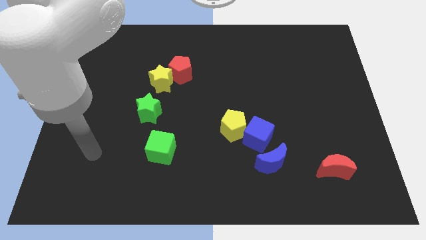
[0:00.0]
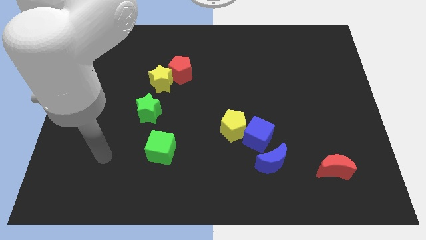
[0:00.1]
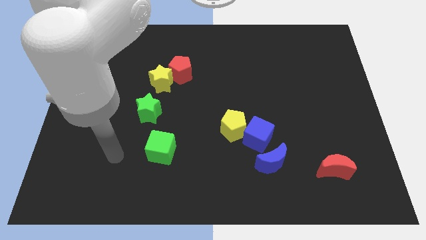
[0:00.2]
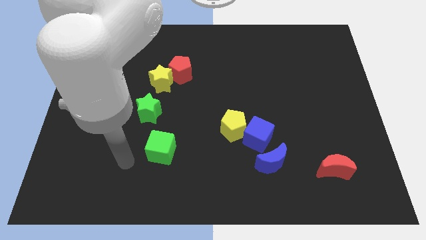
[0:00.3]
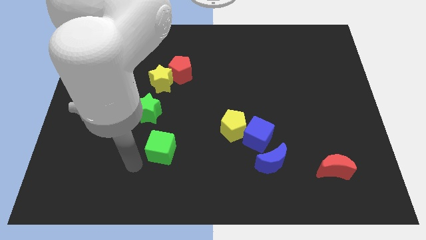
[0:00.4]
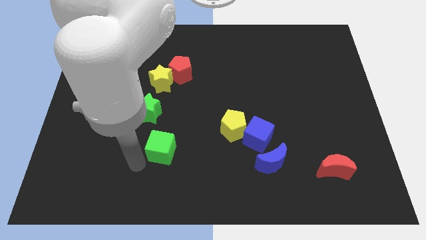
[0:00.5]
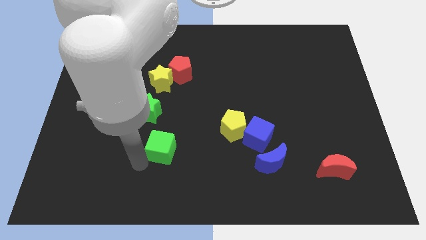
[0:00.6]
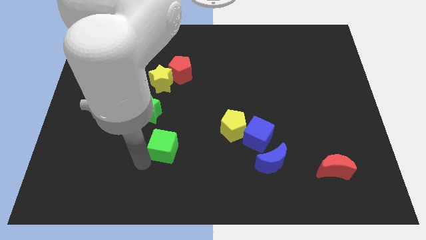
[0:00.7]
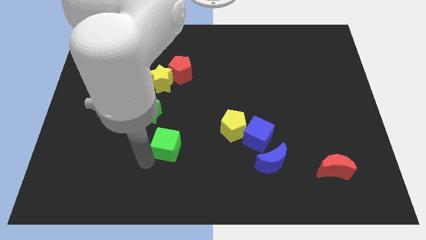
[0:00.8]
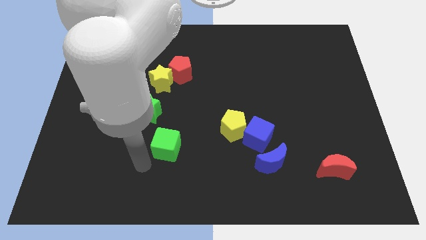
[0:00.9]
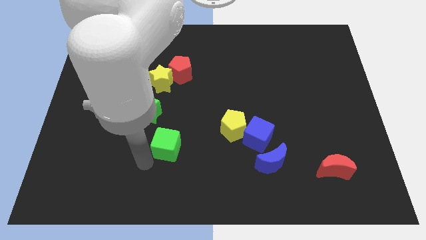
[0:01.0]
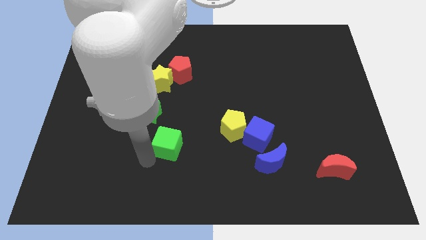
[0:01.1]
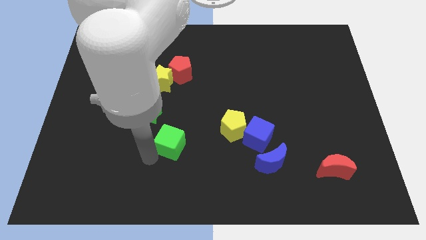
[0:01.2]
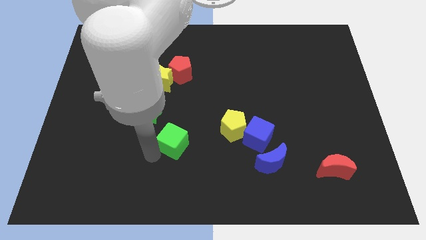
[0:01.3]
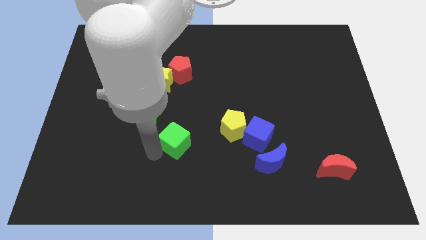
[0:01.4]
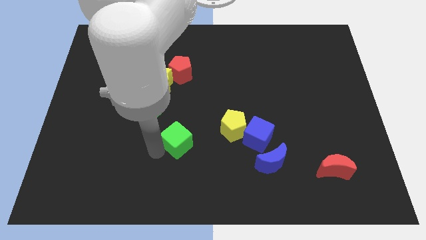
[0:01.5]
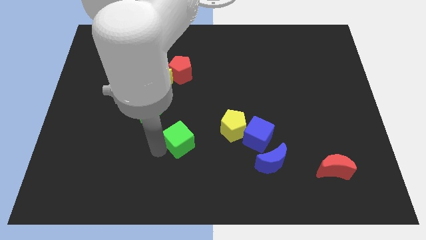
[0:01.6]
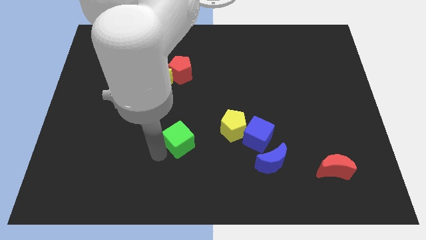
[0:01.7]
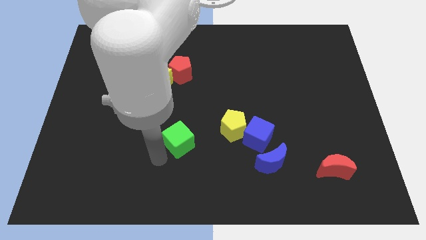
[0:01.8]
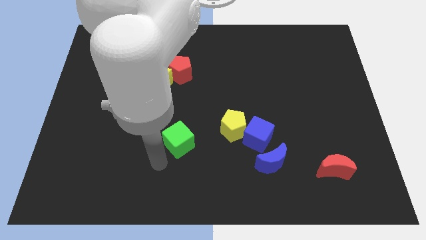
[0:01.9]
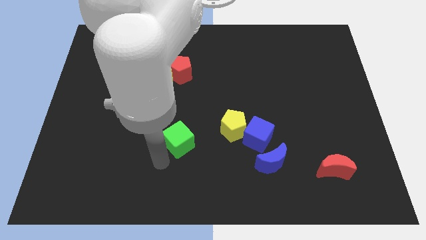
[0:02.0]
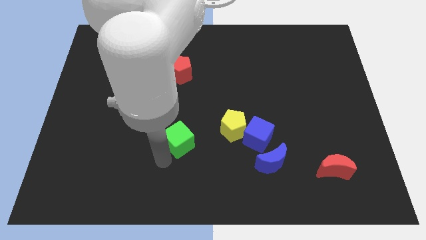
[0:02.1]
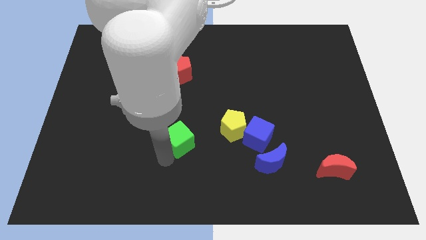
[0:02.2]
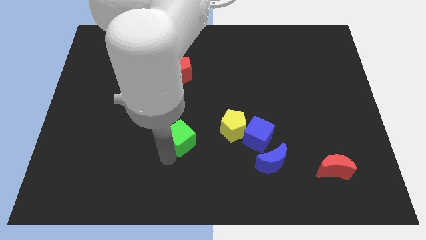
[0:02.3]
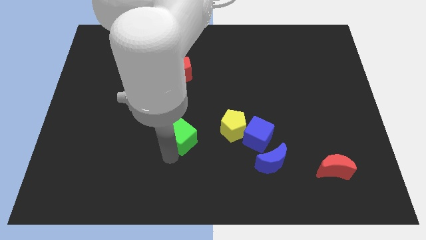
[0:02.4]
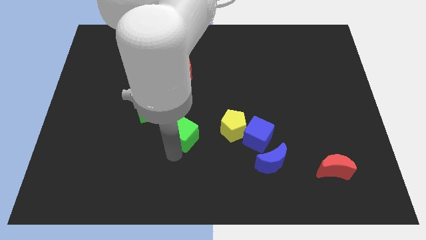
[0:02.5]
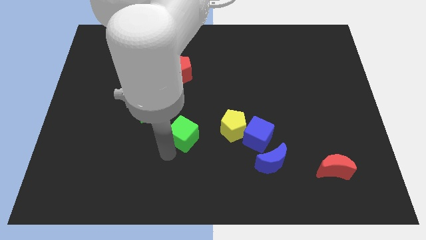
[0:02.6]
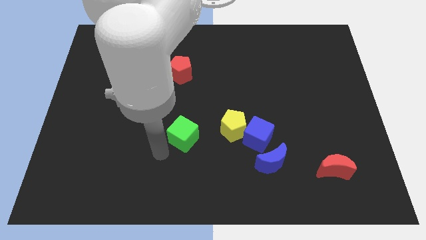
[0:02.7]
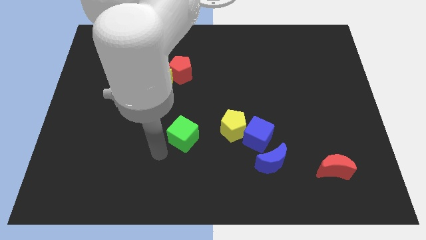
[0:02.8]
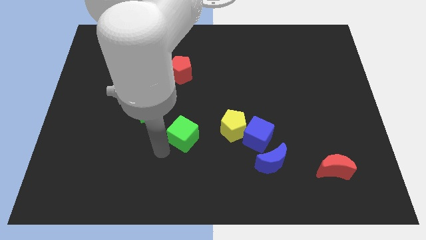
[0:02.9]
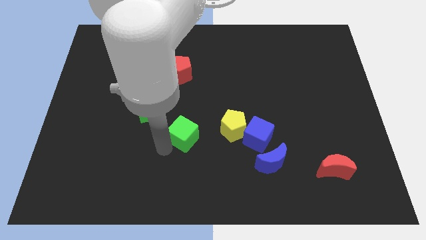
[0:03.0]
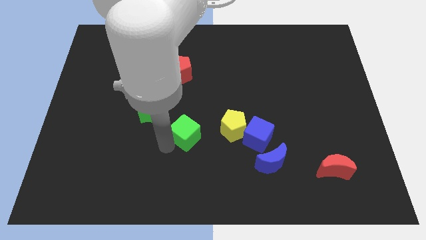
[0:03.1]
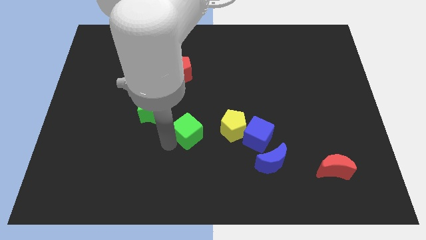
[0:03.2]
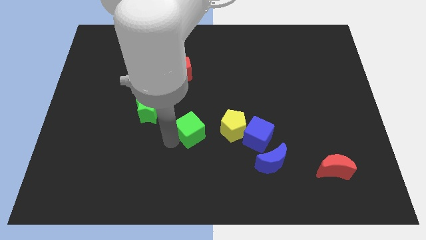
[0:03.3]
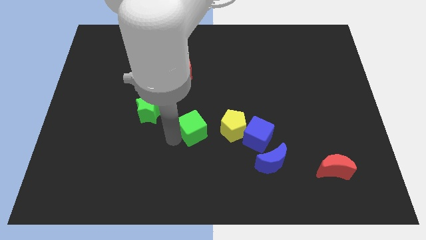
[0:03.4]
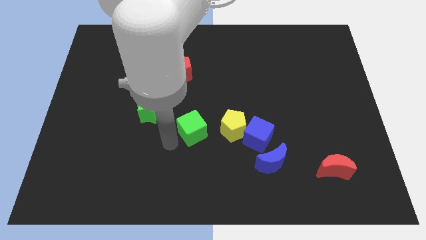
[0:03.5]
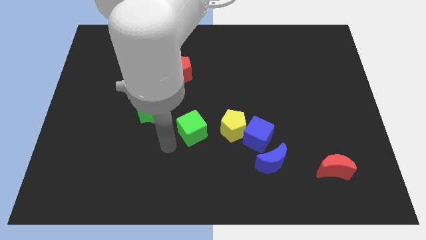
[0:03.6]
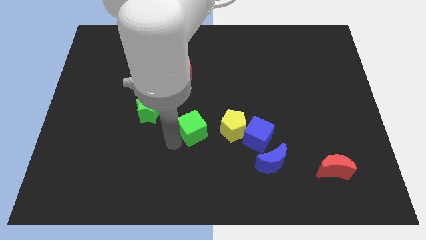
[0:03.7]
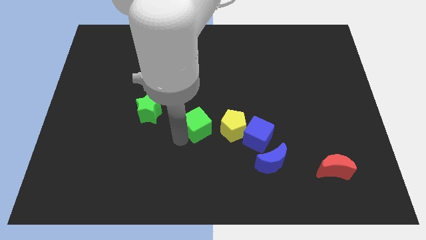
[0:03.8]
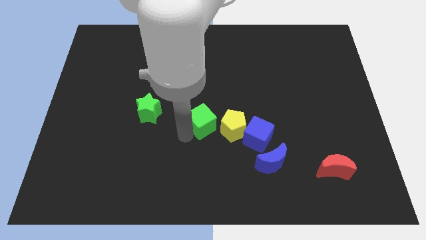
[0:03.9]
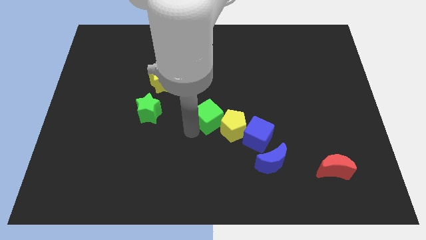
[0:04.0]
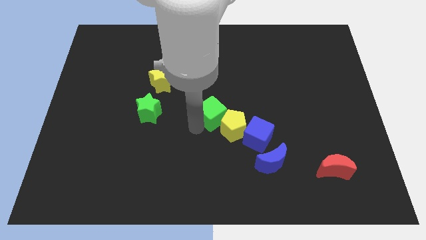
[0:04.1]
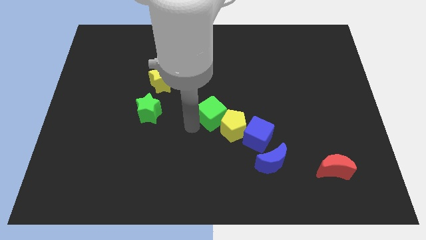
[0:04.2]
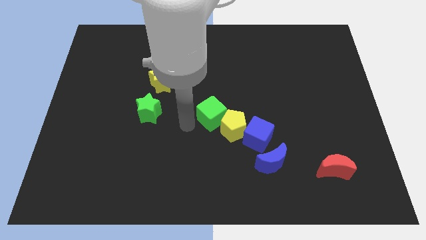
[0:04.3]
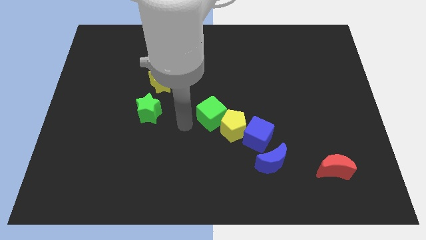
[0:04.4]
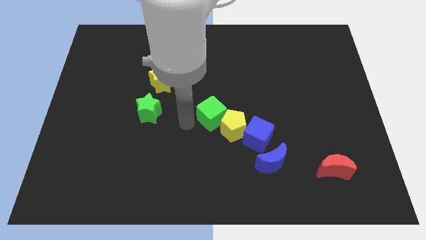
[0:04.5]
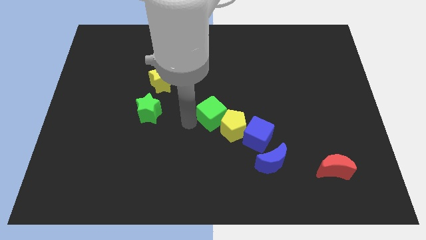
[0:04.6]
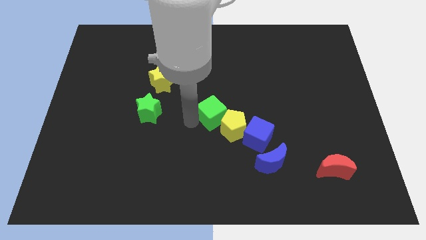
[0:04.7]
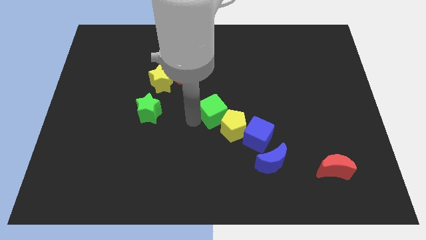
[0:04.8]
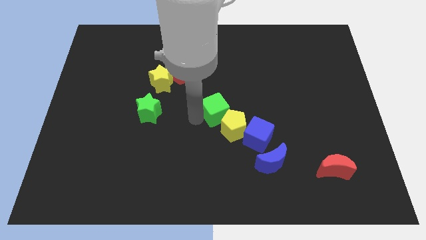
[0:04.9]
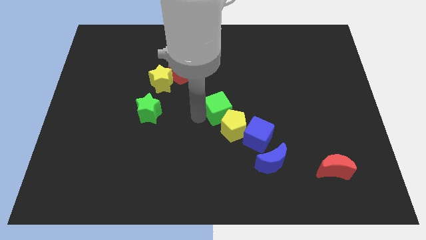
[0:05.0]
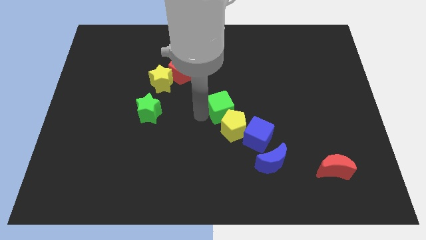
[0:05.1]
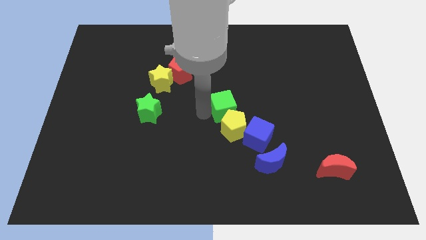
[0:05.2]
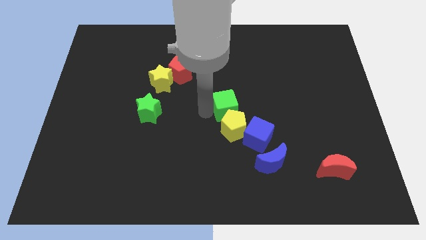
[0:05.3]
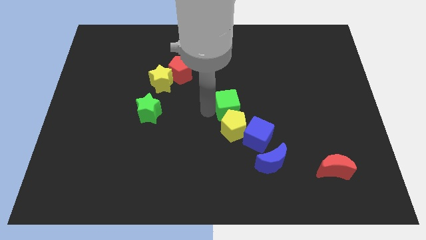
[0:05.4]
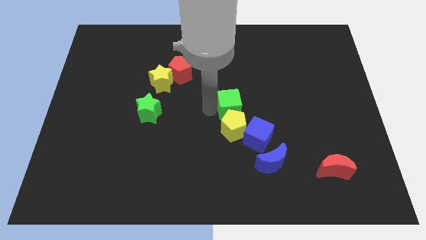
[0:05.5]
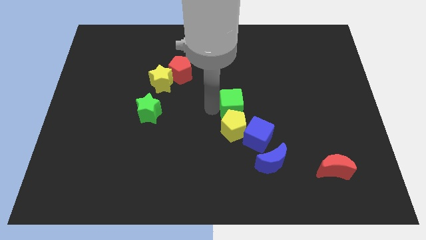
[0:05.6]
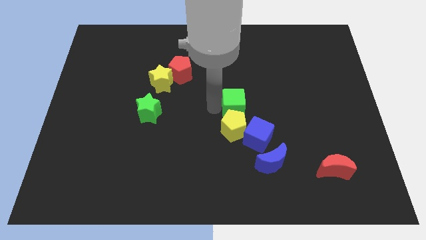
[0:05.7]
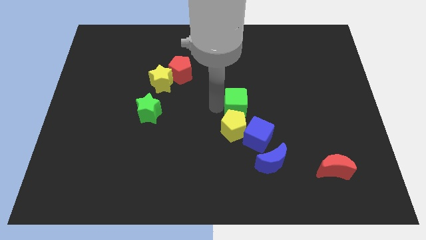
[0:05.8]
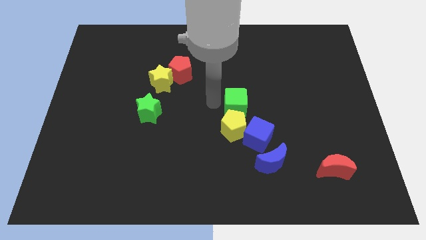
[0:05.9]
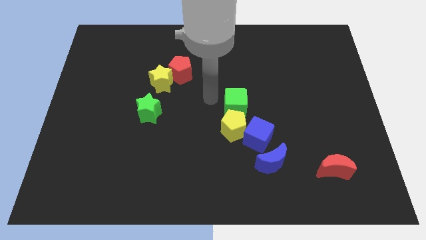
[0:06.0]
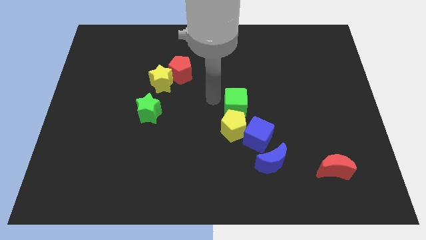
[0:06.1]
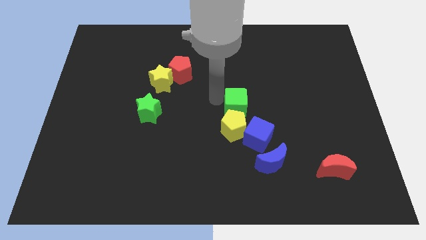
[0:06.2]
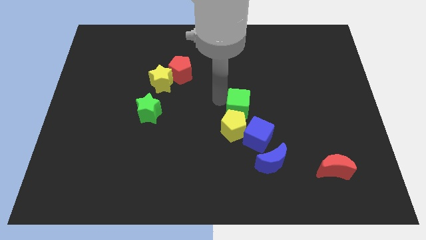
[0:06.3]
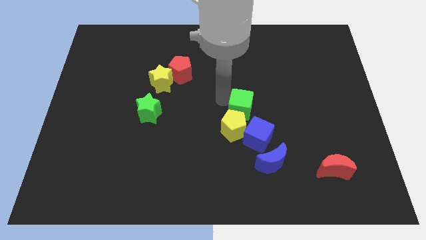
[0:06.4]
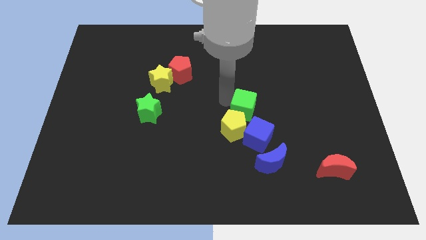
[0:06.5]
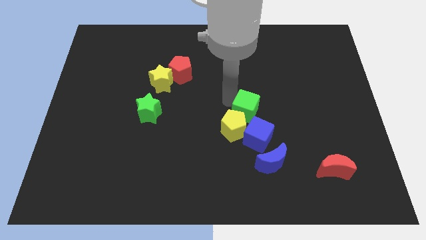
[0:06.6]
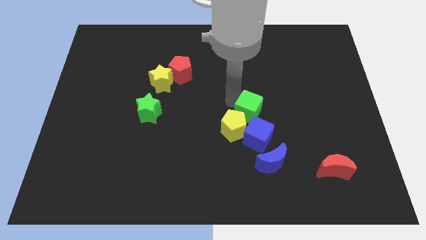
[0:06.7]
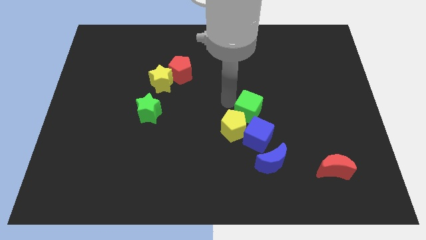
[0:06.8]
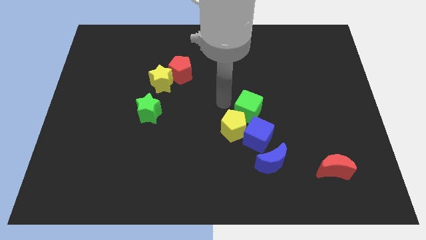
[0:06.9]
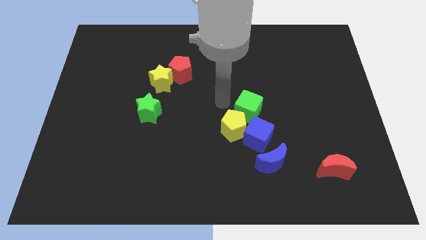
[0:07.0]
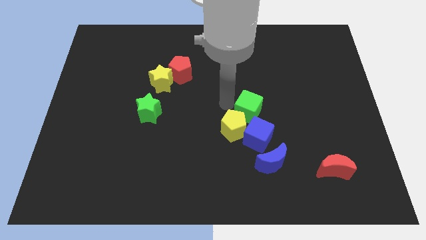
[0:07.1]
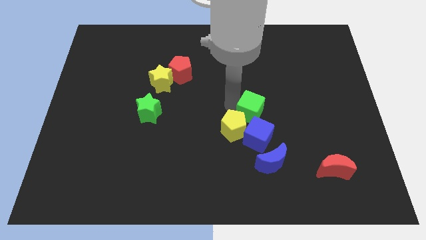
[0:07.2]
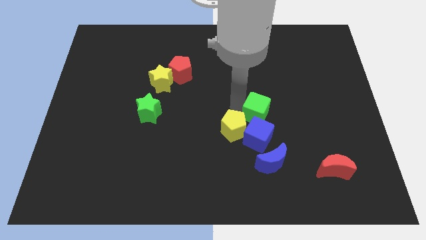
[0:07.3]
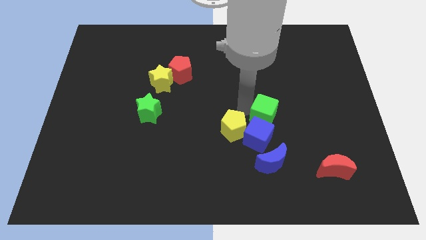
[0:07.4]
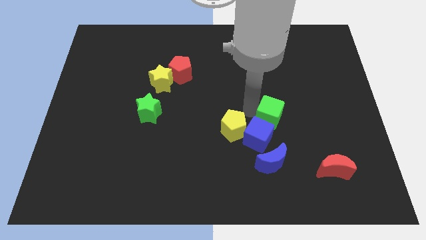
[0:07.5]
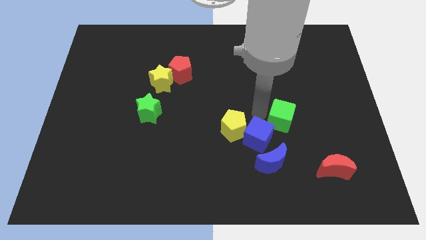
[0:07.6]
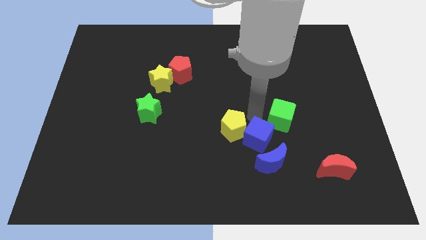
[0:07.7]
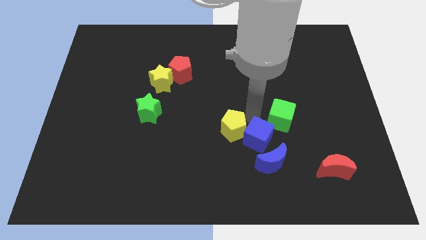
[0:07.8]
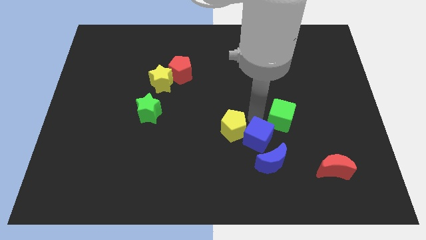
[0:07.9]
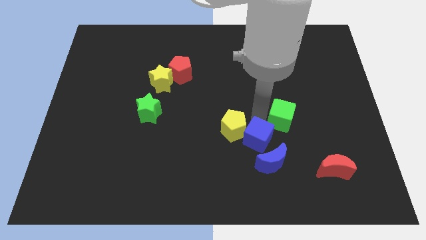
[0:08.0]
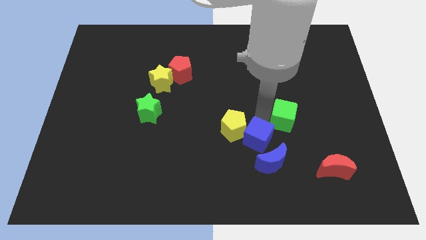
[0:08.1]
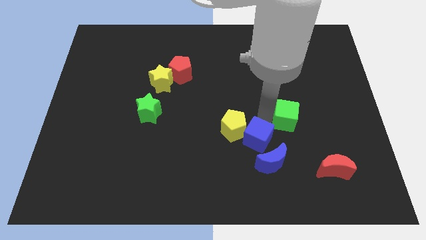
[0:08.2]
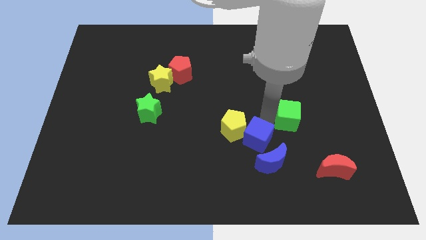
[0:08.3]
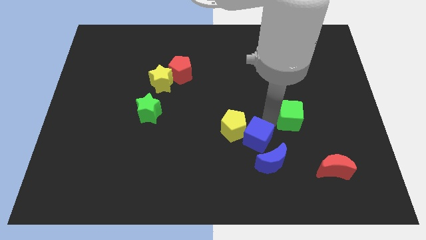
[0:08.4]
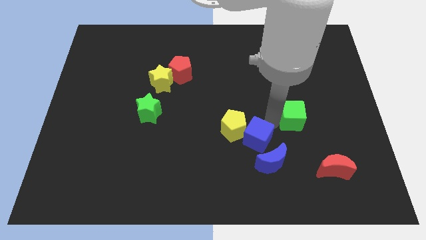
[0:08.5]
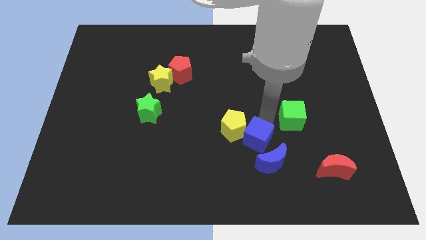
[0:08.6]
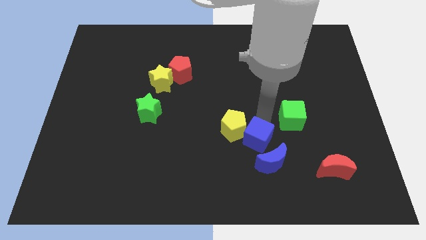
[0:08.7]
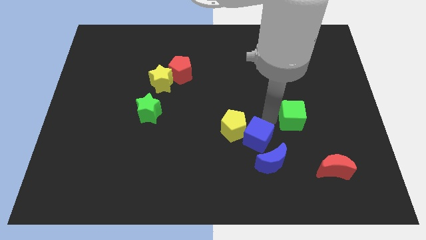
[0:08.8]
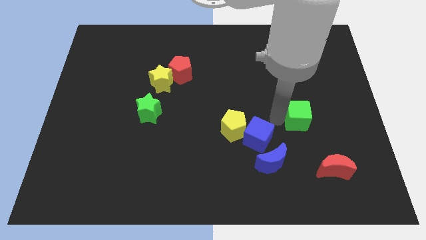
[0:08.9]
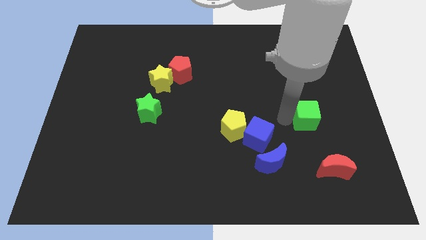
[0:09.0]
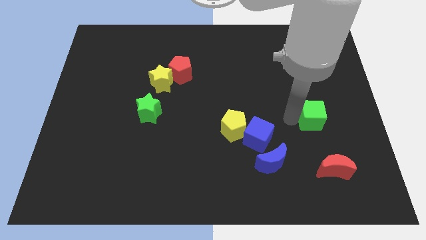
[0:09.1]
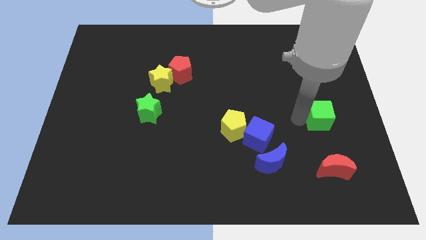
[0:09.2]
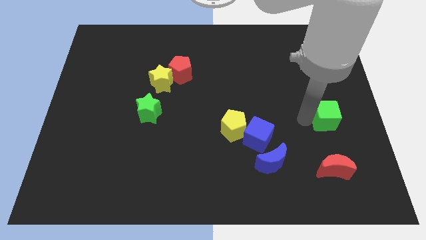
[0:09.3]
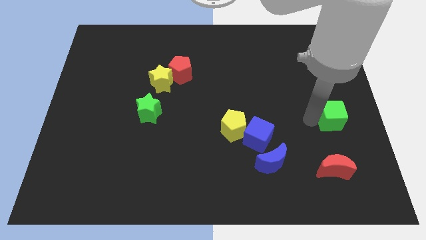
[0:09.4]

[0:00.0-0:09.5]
put the green cube to the center right
